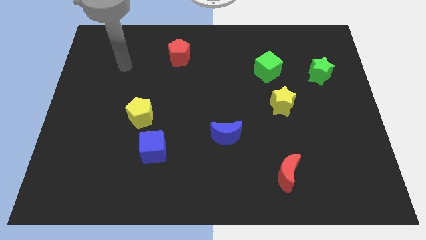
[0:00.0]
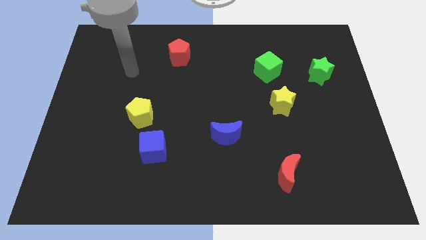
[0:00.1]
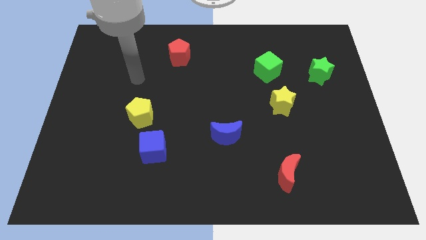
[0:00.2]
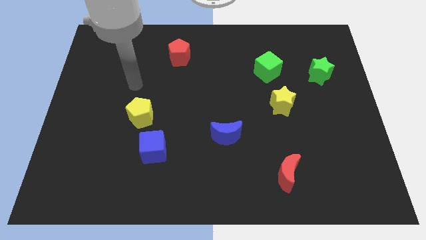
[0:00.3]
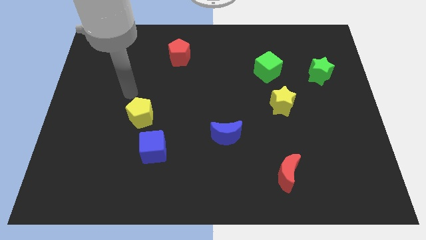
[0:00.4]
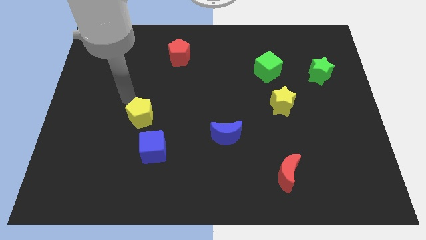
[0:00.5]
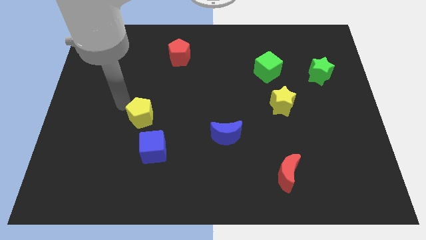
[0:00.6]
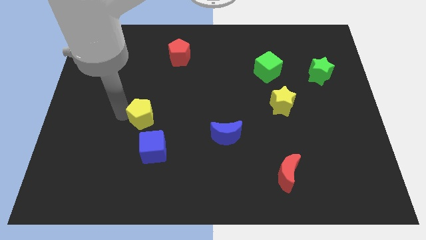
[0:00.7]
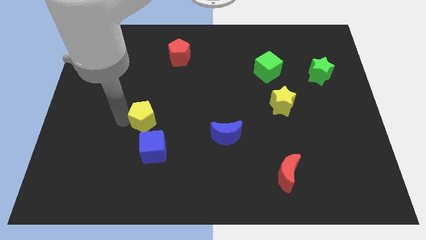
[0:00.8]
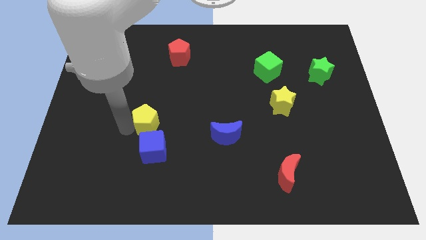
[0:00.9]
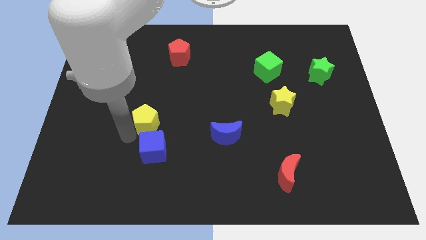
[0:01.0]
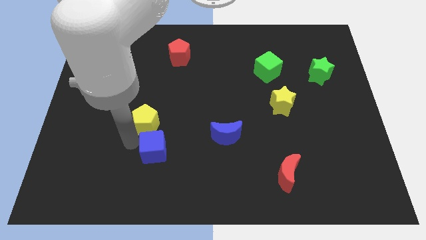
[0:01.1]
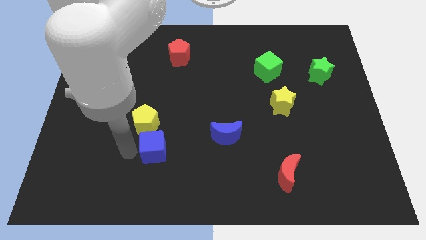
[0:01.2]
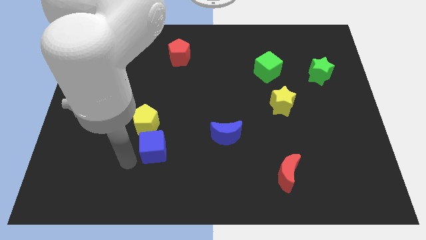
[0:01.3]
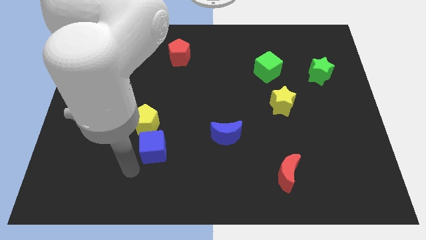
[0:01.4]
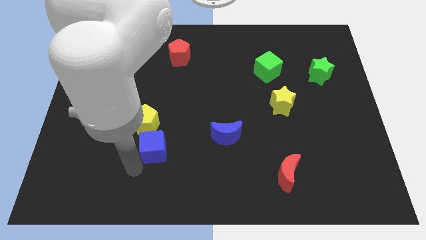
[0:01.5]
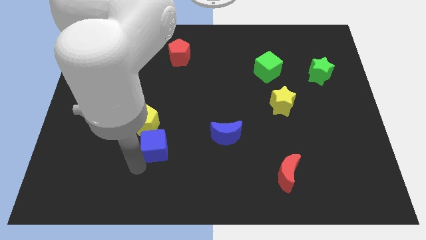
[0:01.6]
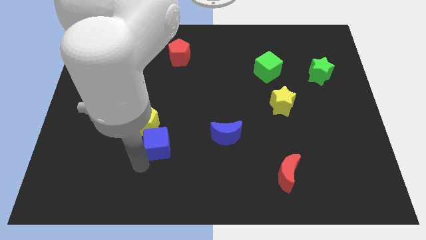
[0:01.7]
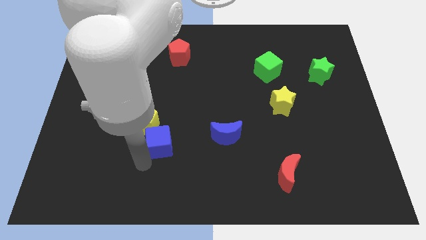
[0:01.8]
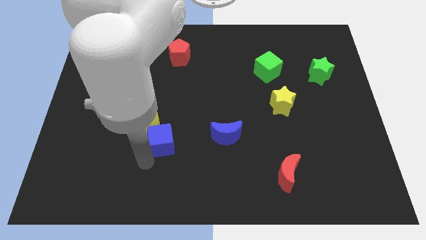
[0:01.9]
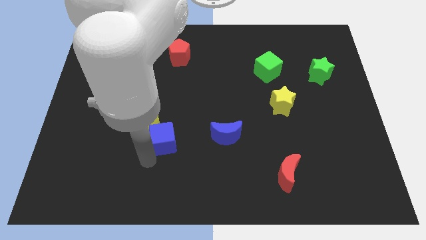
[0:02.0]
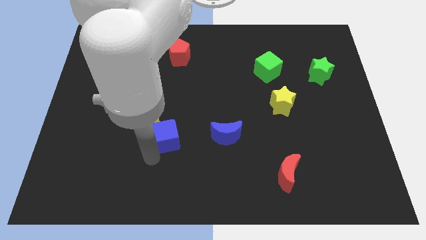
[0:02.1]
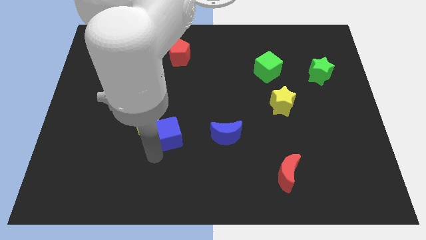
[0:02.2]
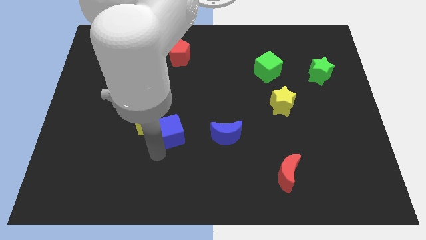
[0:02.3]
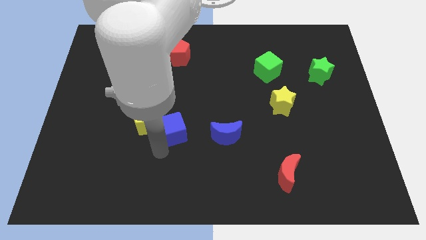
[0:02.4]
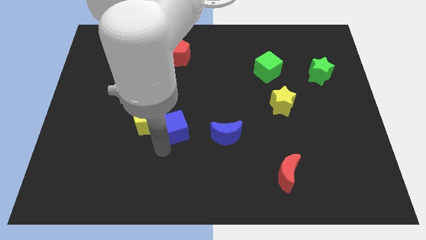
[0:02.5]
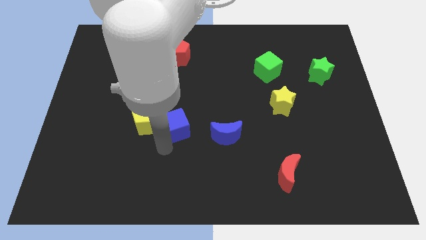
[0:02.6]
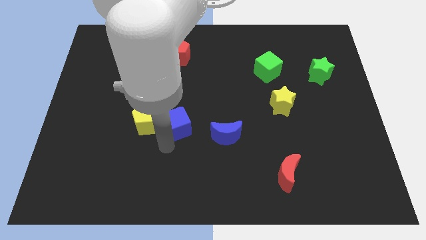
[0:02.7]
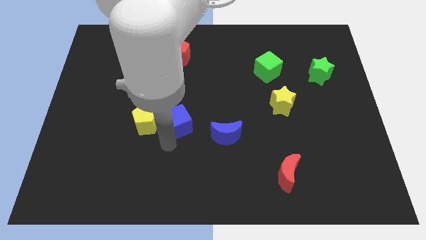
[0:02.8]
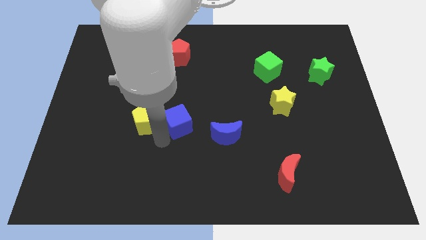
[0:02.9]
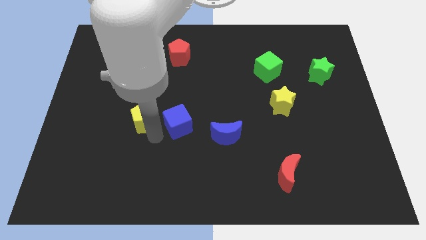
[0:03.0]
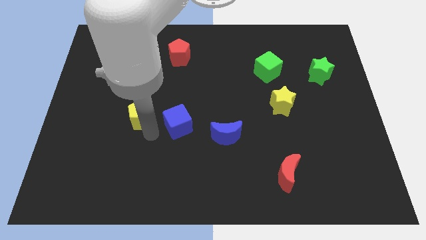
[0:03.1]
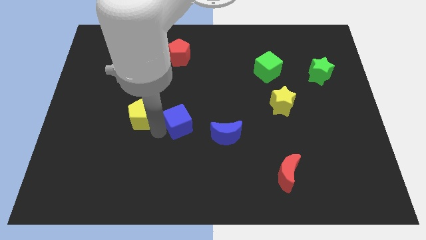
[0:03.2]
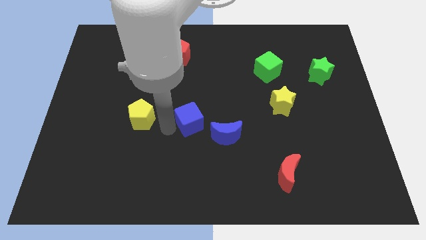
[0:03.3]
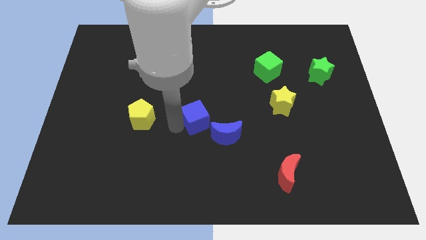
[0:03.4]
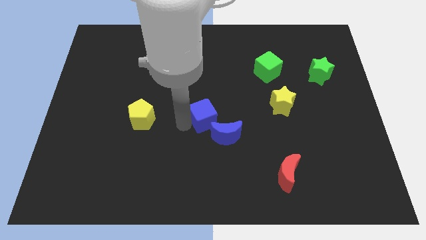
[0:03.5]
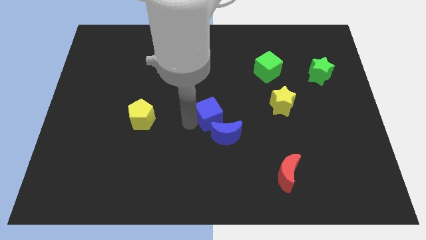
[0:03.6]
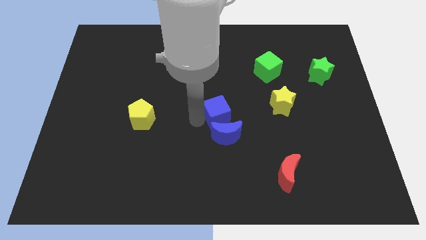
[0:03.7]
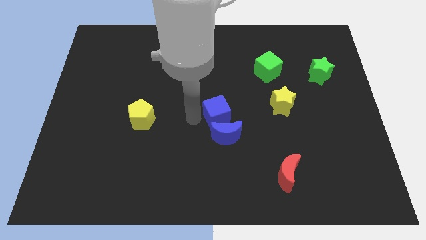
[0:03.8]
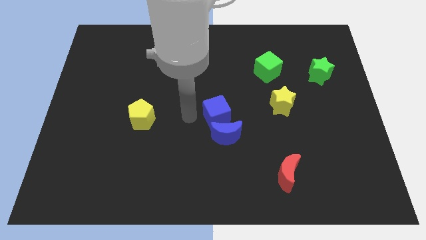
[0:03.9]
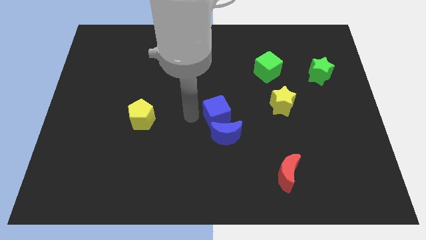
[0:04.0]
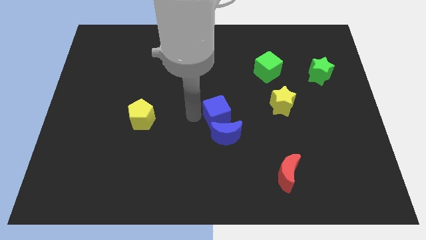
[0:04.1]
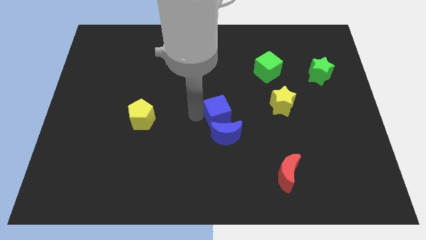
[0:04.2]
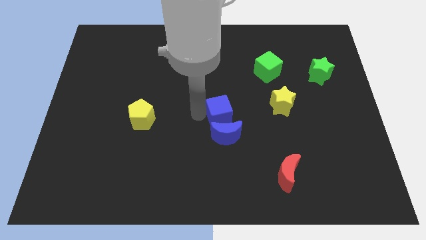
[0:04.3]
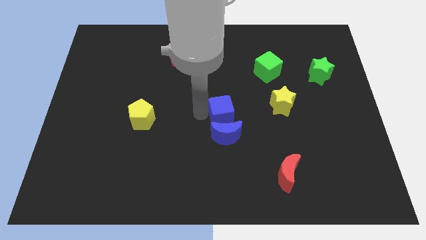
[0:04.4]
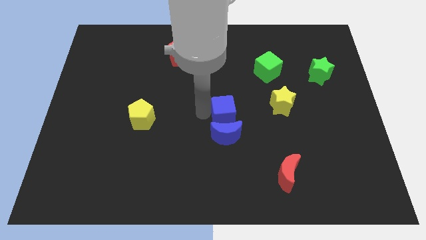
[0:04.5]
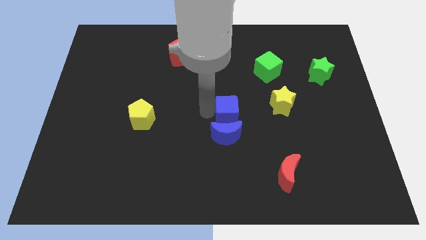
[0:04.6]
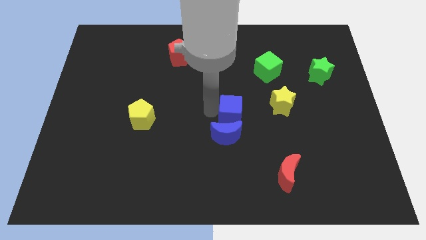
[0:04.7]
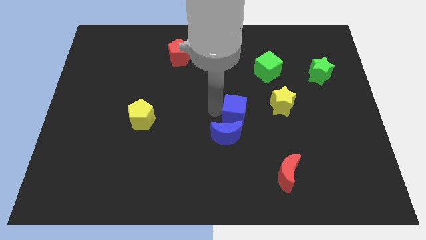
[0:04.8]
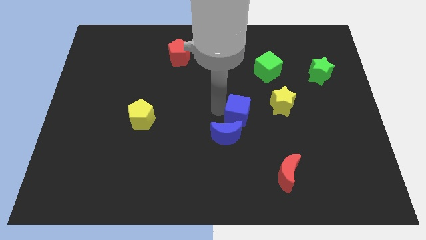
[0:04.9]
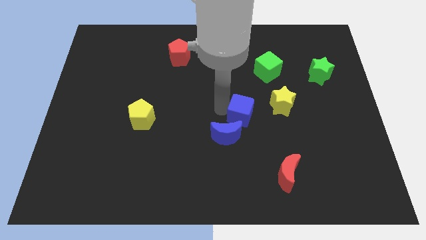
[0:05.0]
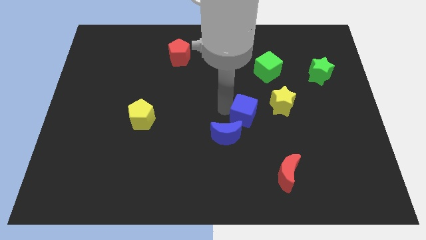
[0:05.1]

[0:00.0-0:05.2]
push the blue cube to the bottom left of the yellow star

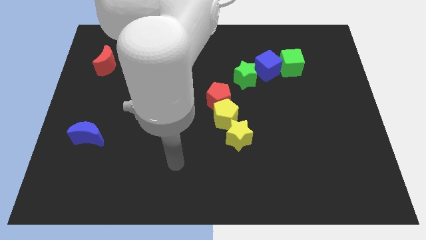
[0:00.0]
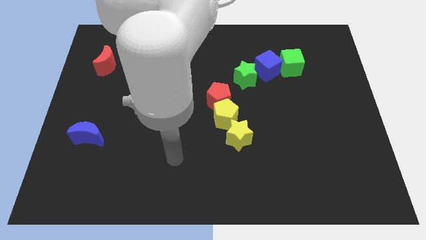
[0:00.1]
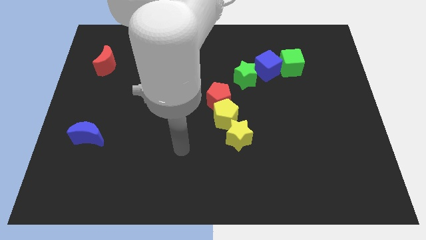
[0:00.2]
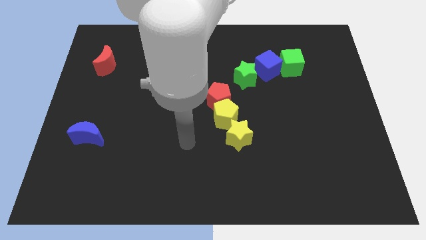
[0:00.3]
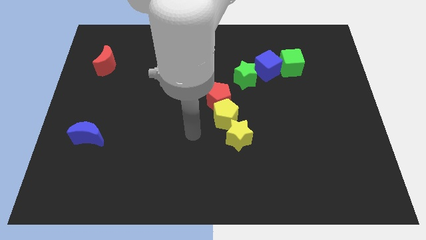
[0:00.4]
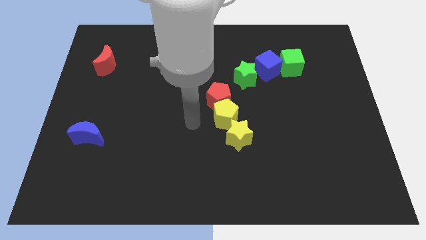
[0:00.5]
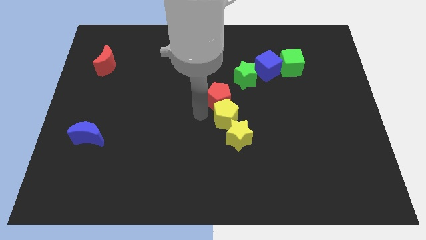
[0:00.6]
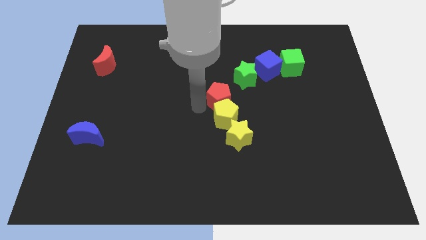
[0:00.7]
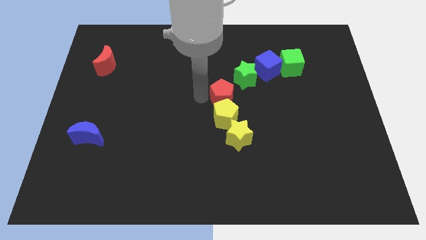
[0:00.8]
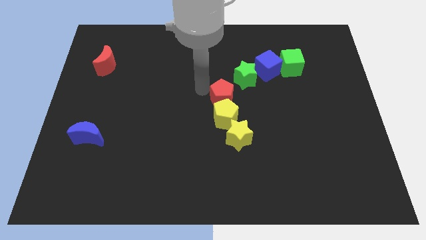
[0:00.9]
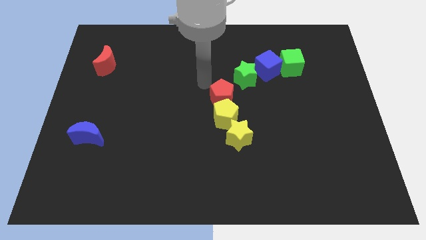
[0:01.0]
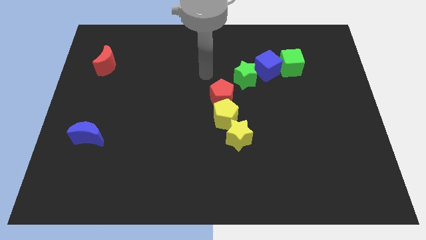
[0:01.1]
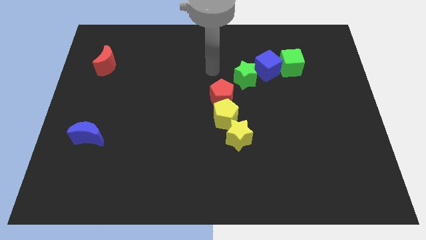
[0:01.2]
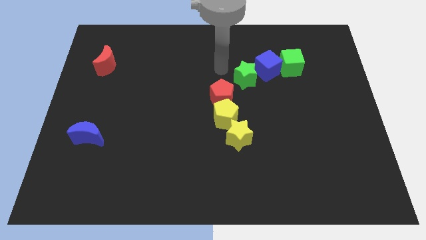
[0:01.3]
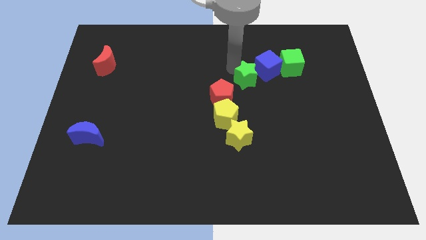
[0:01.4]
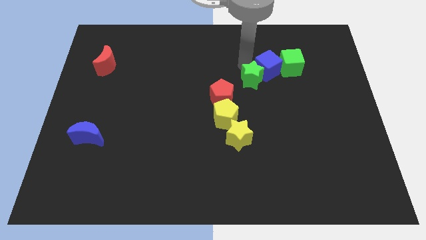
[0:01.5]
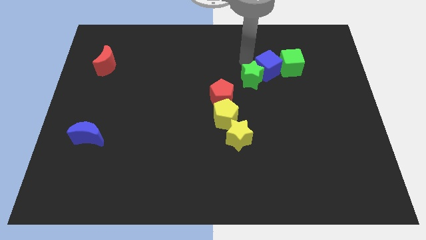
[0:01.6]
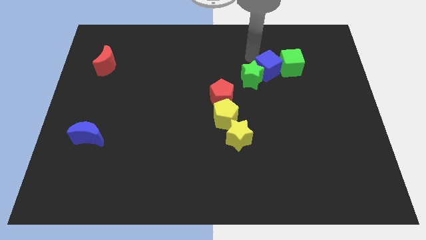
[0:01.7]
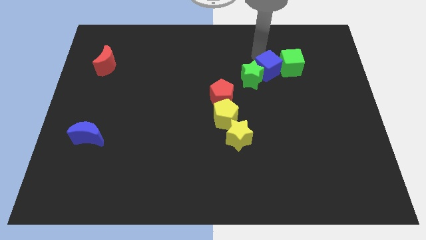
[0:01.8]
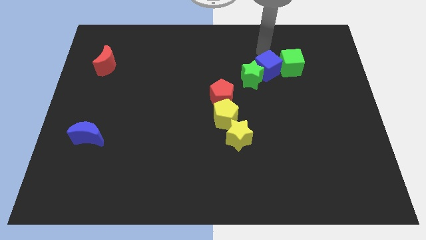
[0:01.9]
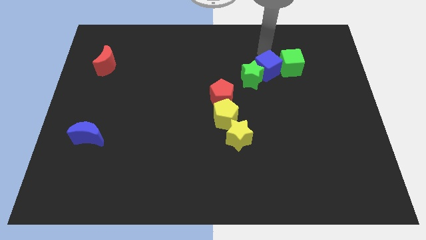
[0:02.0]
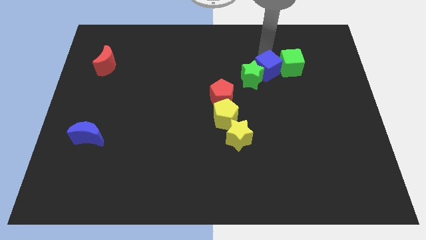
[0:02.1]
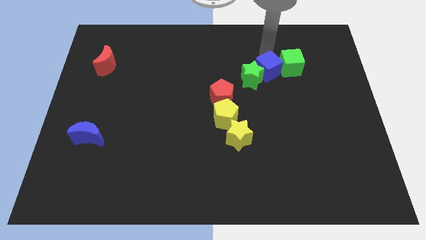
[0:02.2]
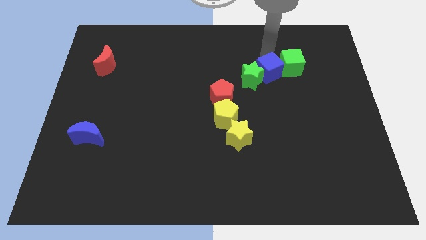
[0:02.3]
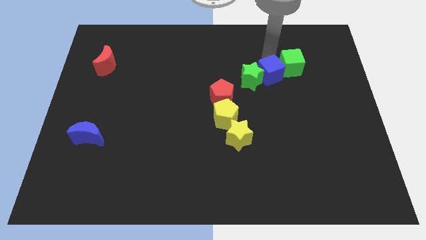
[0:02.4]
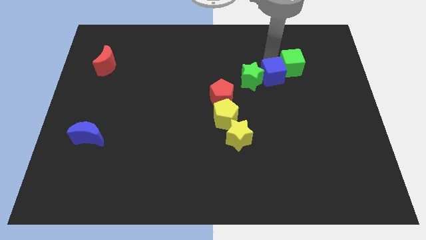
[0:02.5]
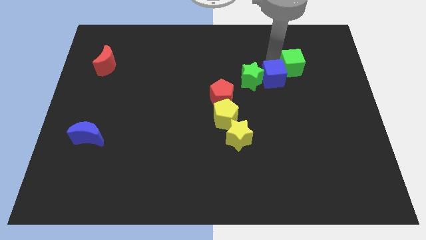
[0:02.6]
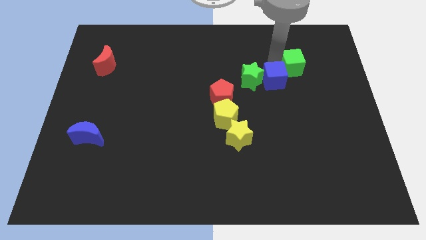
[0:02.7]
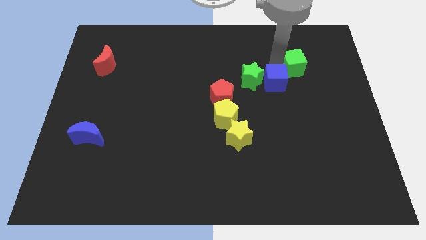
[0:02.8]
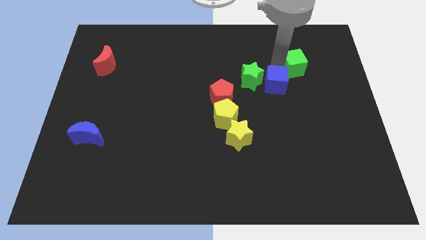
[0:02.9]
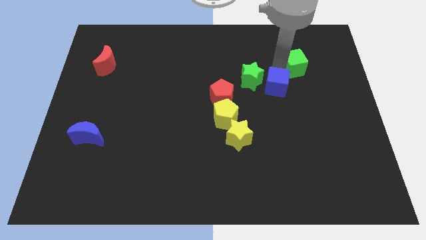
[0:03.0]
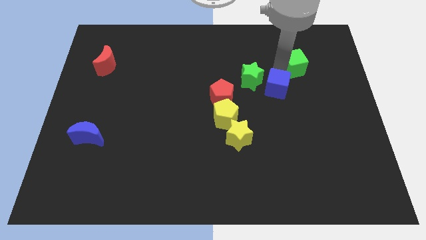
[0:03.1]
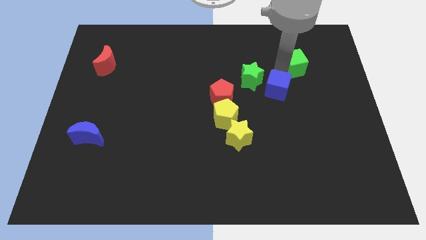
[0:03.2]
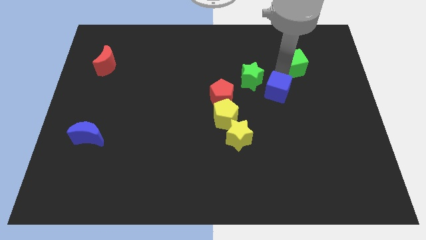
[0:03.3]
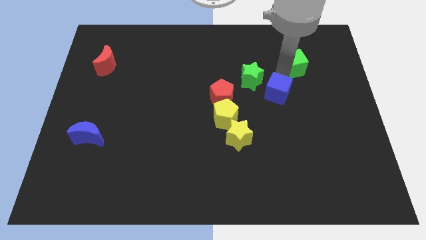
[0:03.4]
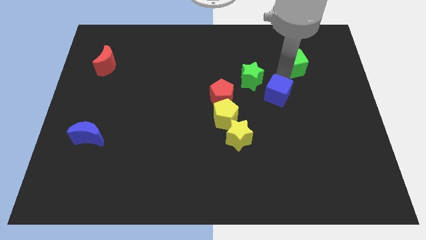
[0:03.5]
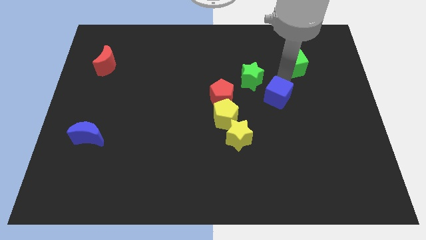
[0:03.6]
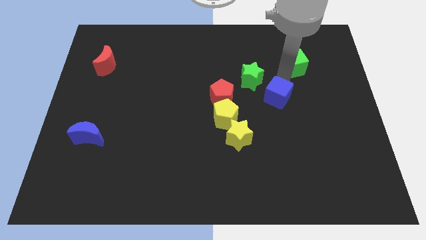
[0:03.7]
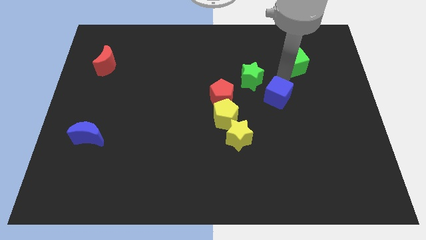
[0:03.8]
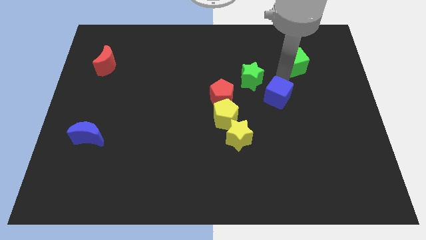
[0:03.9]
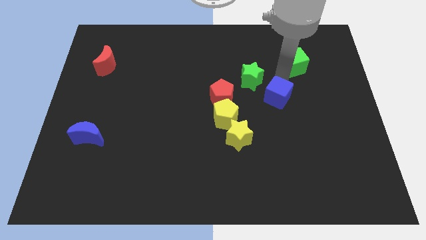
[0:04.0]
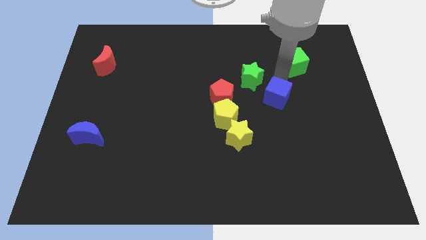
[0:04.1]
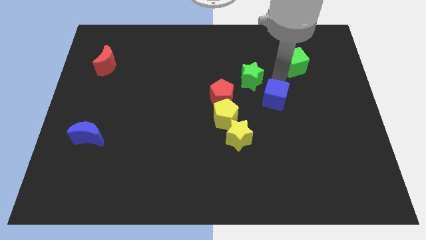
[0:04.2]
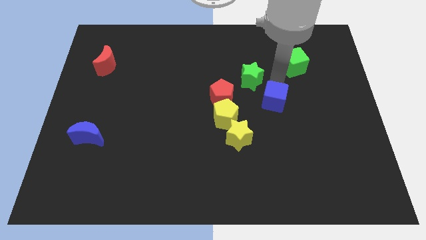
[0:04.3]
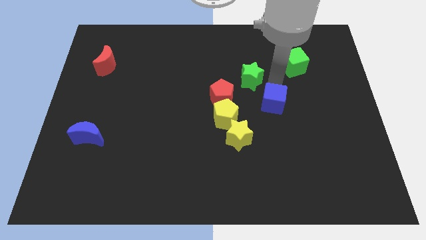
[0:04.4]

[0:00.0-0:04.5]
move the blue cube just right of the yellow pentagon
